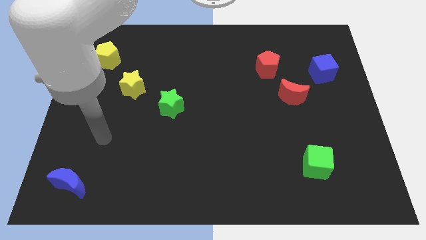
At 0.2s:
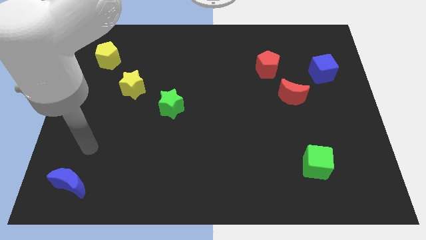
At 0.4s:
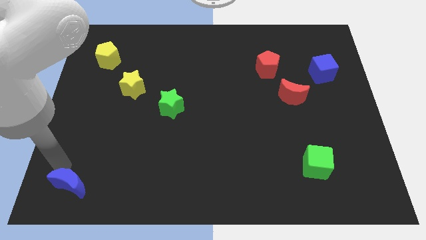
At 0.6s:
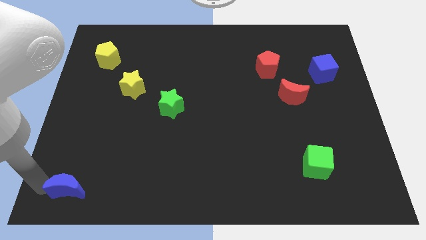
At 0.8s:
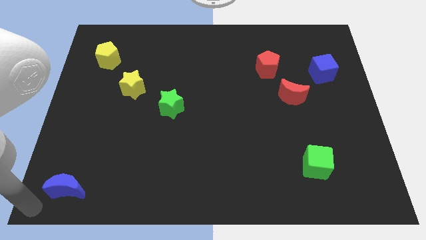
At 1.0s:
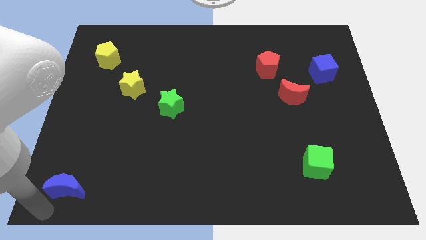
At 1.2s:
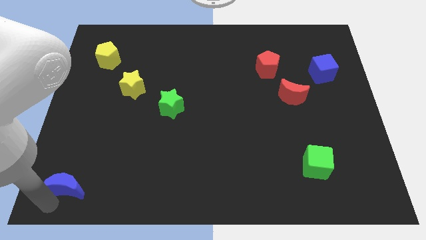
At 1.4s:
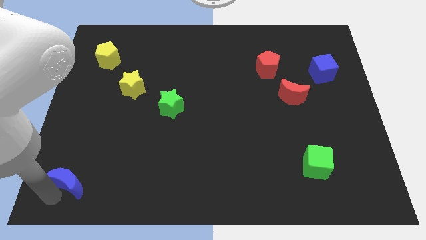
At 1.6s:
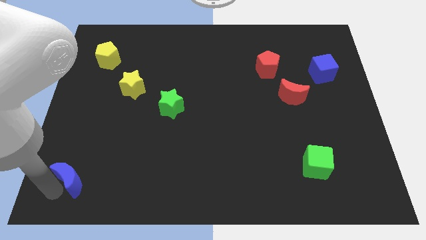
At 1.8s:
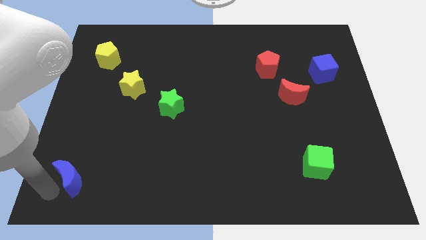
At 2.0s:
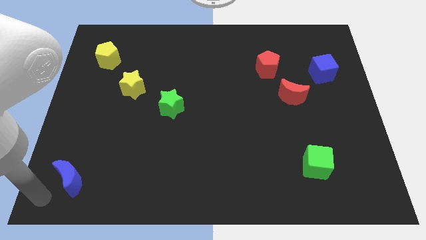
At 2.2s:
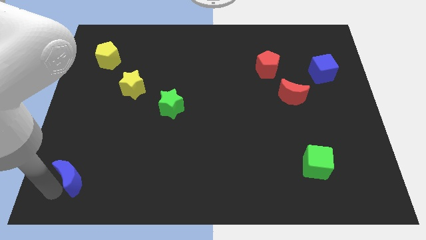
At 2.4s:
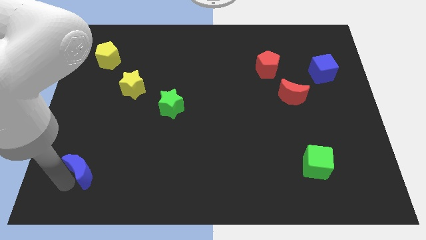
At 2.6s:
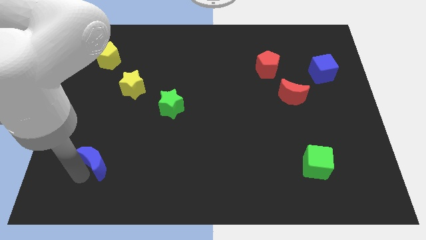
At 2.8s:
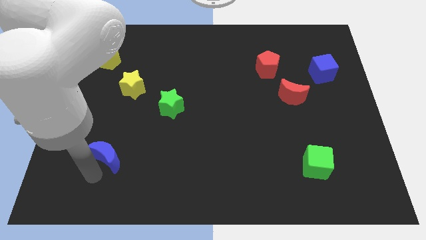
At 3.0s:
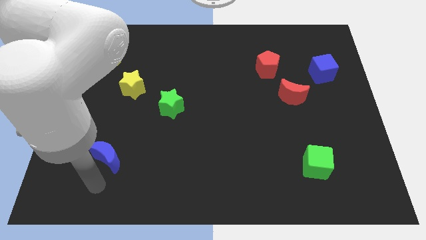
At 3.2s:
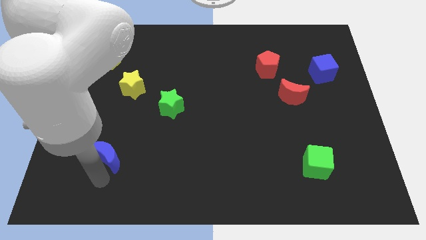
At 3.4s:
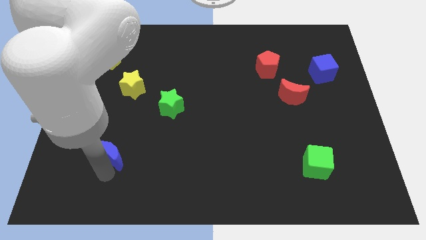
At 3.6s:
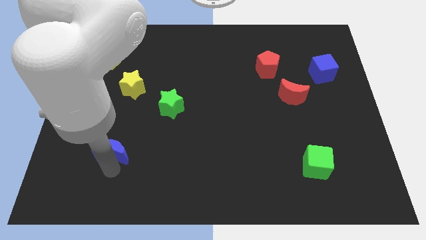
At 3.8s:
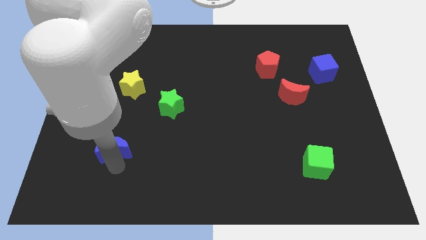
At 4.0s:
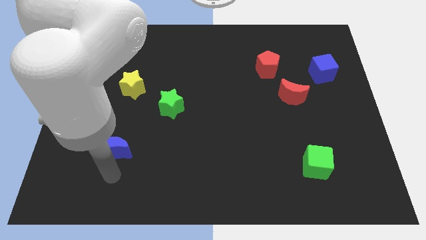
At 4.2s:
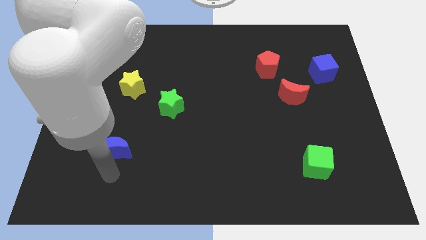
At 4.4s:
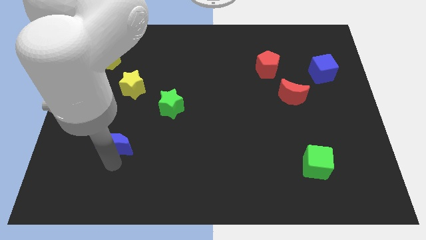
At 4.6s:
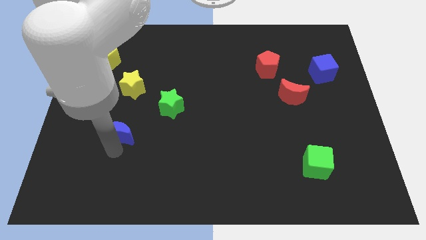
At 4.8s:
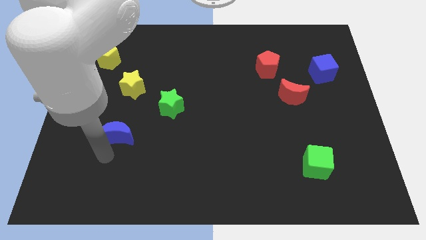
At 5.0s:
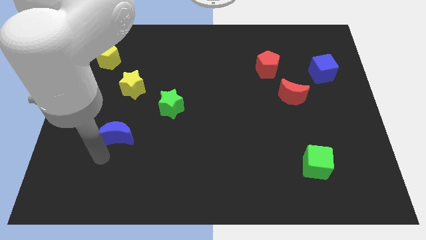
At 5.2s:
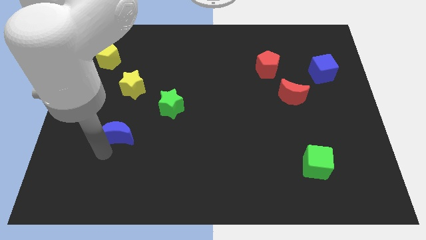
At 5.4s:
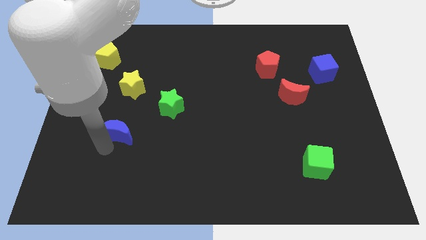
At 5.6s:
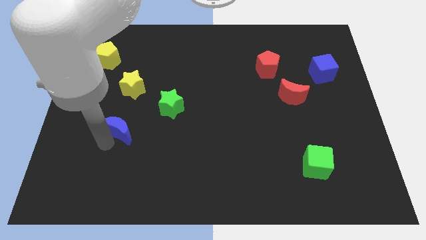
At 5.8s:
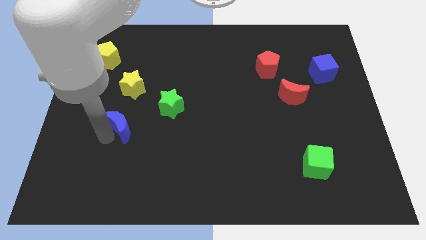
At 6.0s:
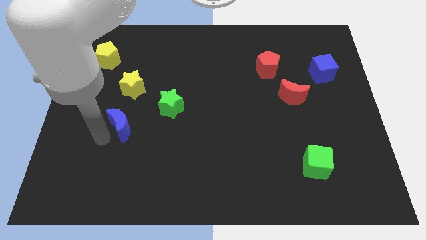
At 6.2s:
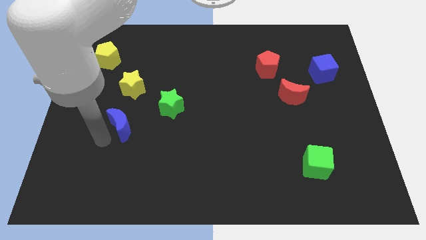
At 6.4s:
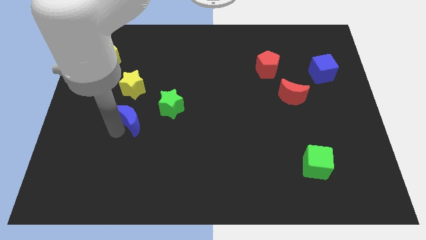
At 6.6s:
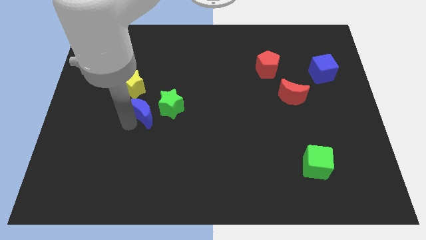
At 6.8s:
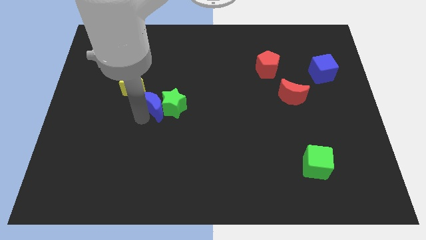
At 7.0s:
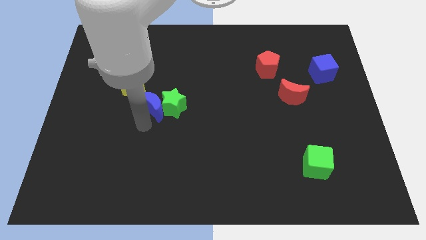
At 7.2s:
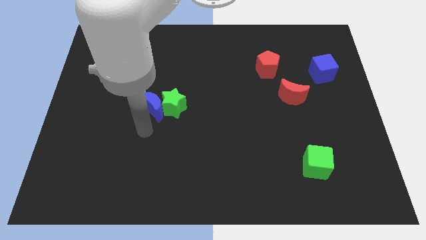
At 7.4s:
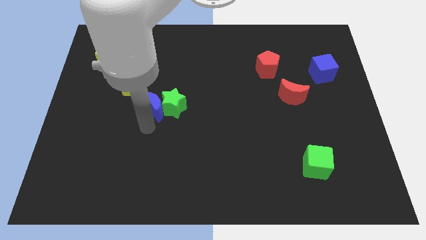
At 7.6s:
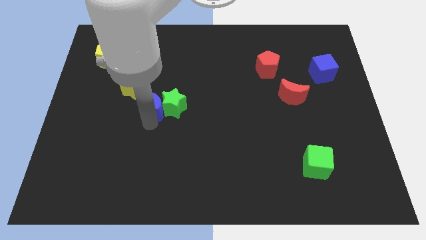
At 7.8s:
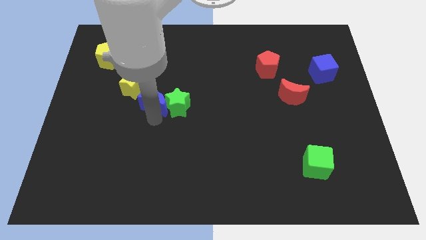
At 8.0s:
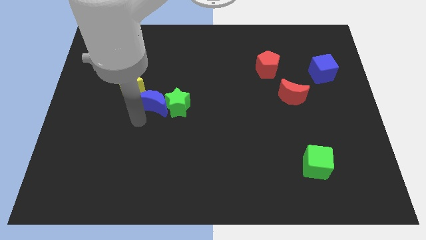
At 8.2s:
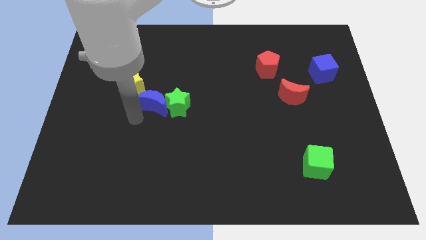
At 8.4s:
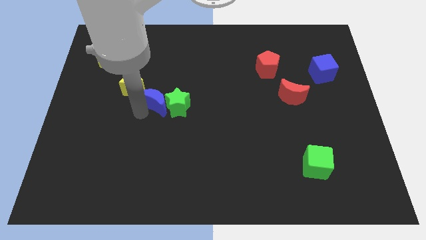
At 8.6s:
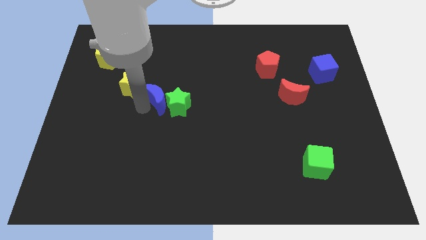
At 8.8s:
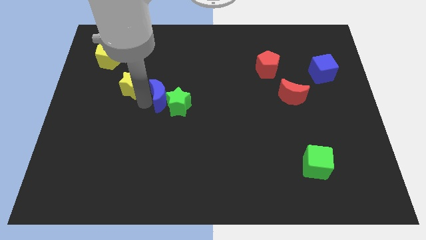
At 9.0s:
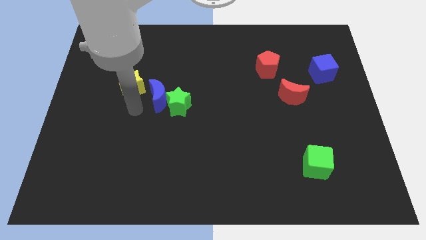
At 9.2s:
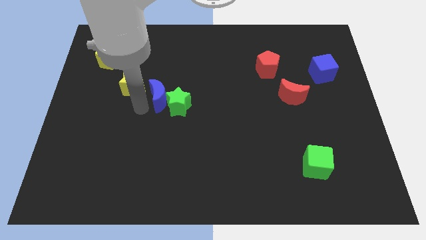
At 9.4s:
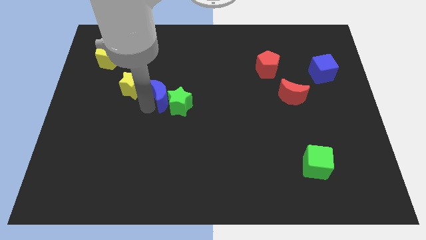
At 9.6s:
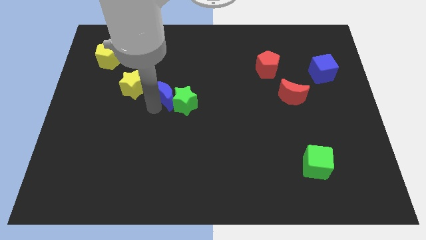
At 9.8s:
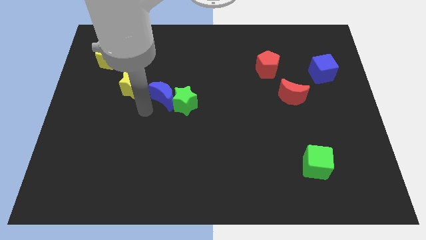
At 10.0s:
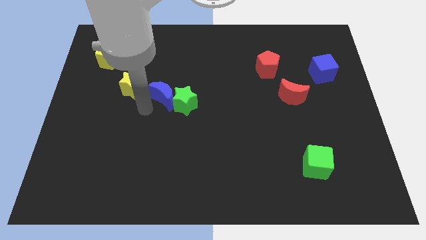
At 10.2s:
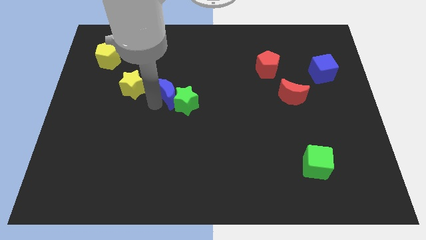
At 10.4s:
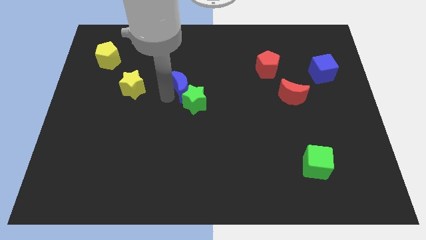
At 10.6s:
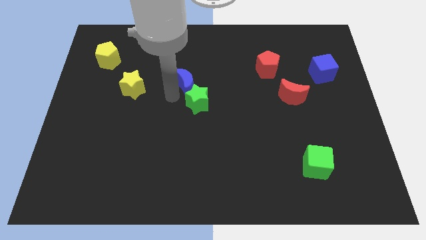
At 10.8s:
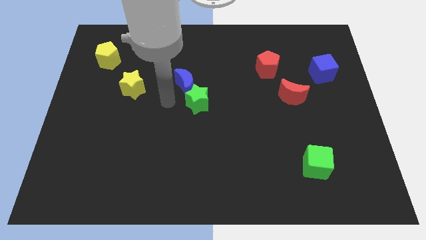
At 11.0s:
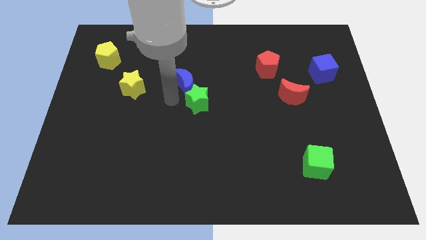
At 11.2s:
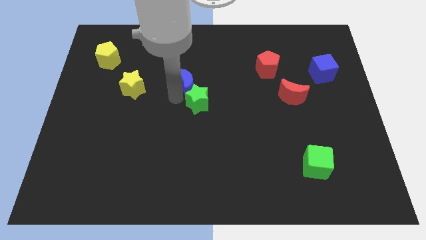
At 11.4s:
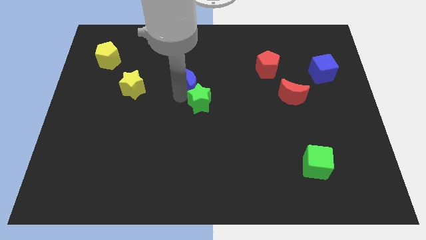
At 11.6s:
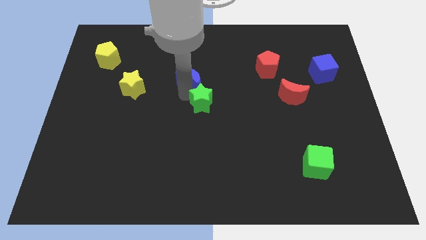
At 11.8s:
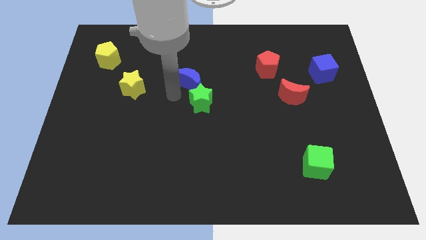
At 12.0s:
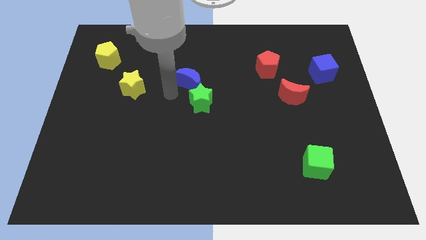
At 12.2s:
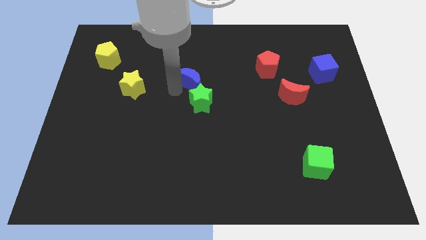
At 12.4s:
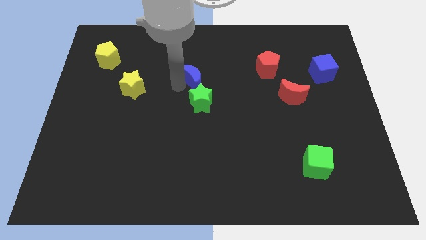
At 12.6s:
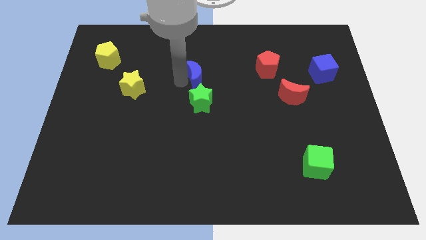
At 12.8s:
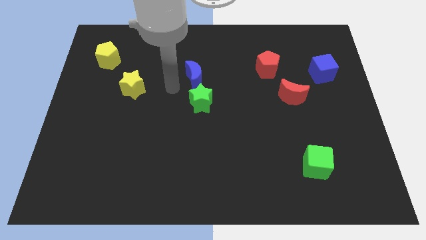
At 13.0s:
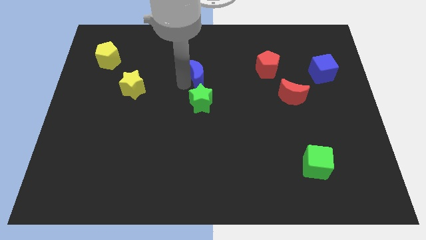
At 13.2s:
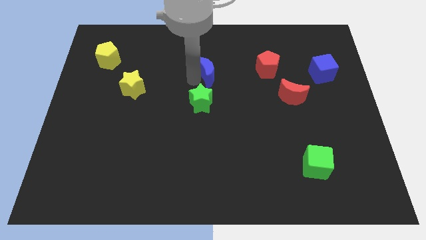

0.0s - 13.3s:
push the blue moon to the left side of the red pentagon
